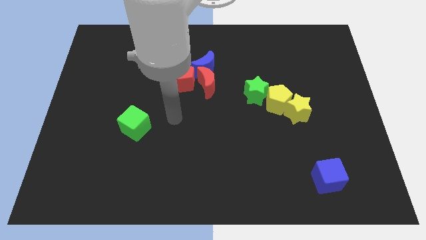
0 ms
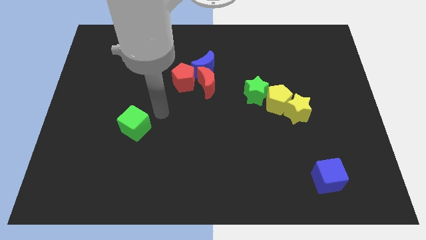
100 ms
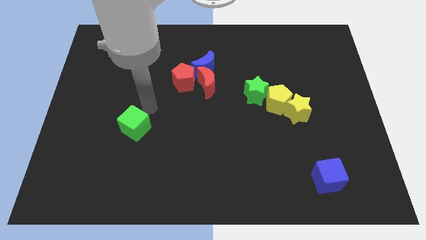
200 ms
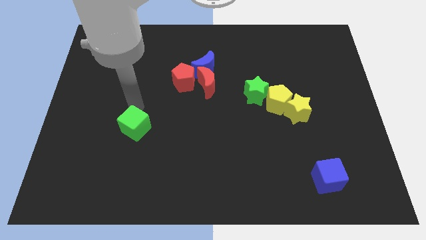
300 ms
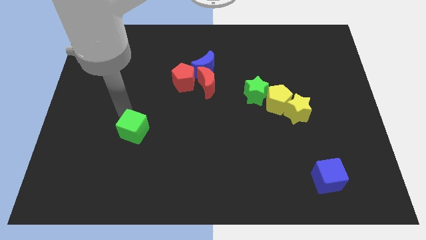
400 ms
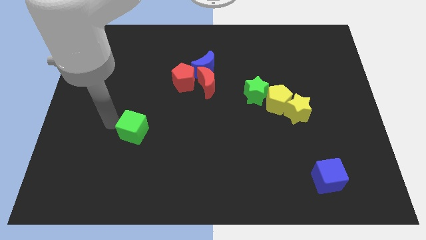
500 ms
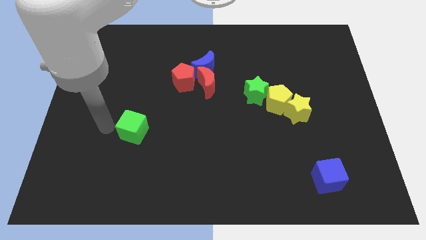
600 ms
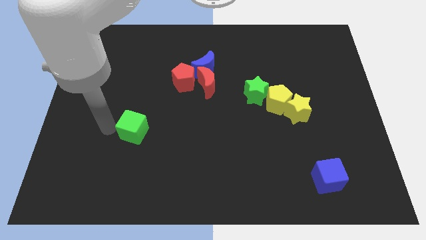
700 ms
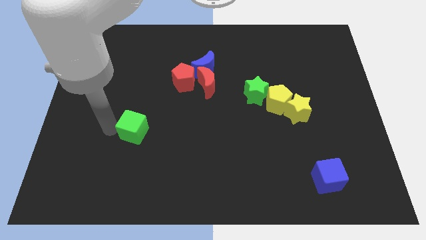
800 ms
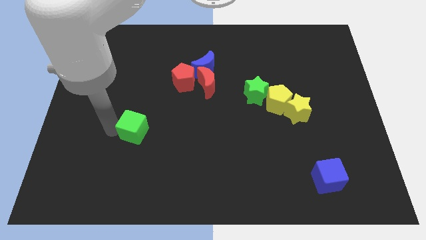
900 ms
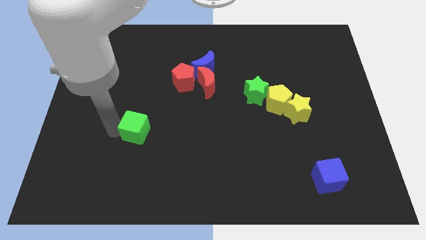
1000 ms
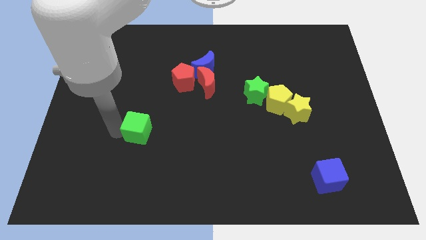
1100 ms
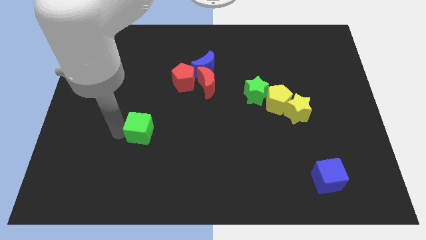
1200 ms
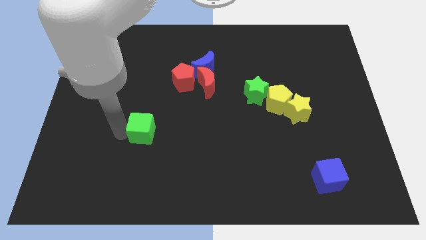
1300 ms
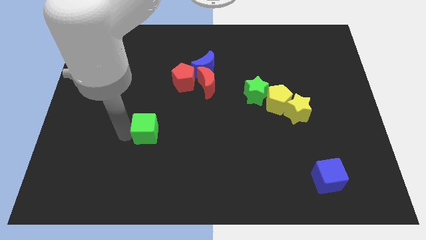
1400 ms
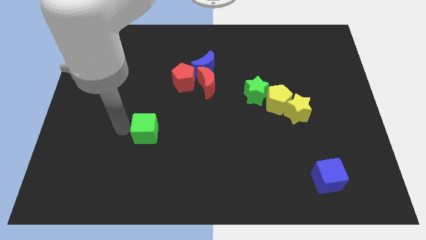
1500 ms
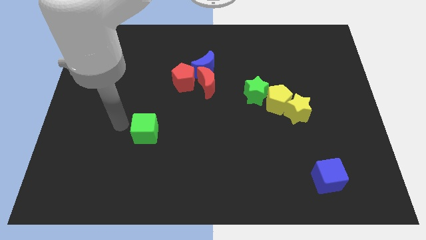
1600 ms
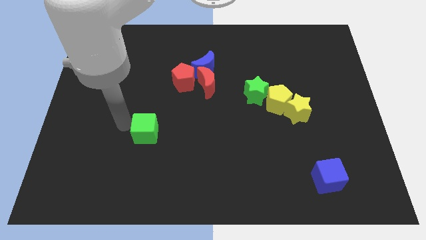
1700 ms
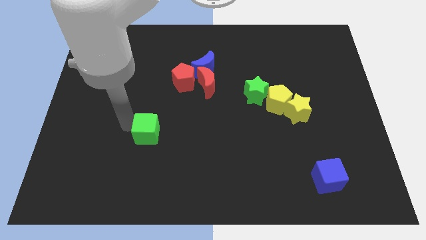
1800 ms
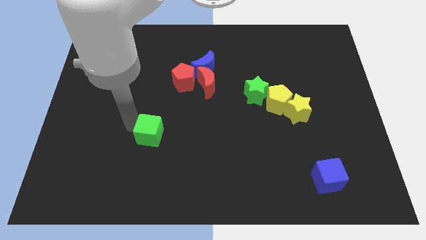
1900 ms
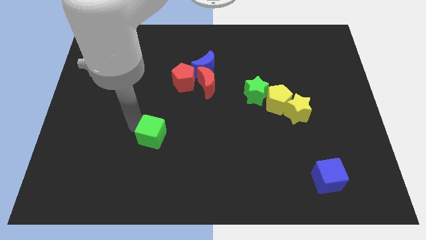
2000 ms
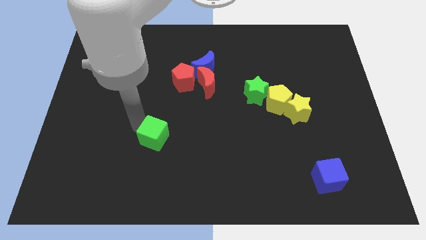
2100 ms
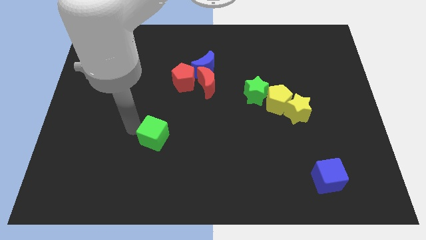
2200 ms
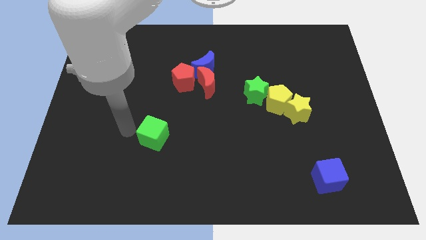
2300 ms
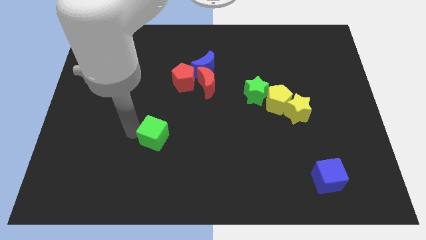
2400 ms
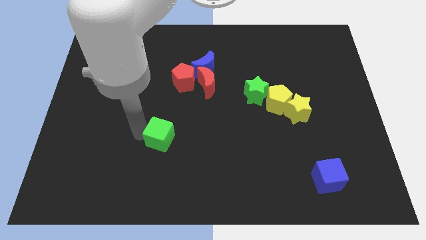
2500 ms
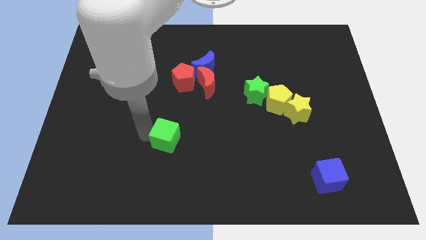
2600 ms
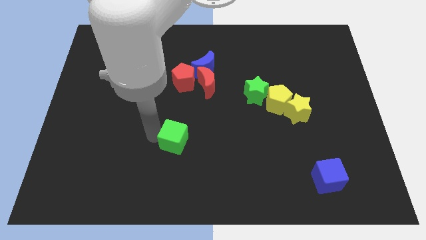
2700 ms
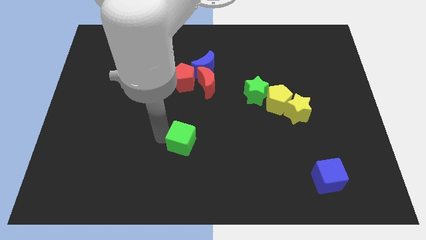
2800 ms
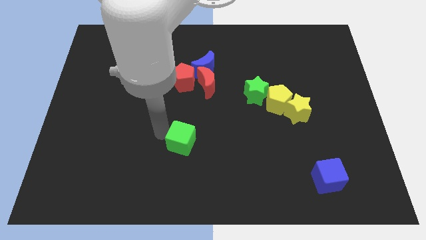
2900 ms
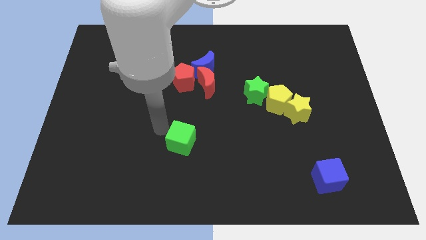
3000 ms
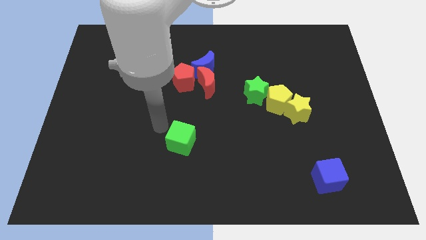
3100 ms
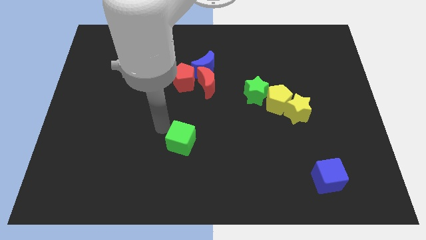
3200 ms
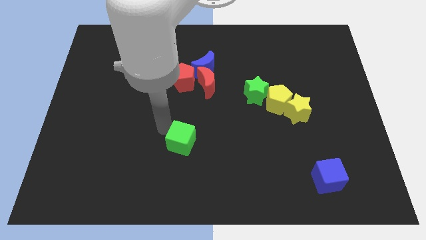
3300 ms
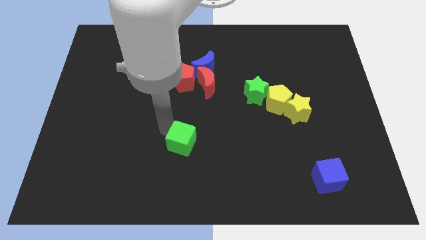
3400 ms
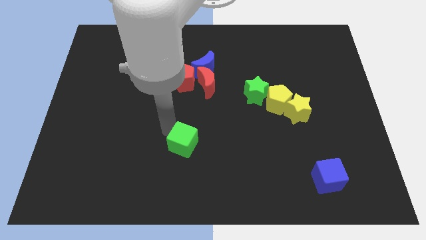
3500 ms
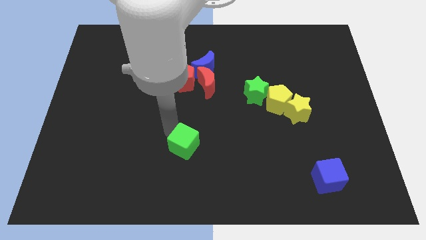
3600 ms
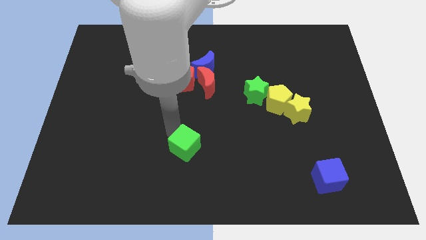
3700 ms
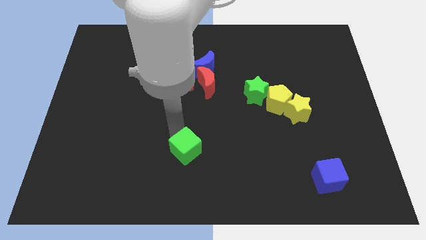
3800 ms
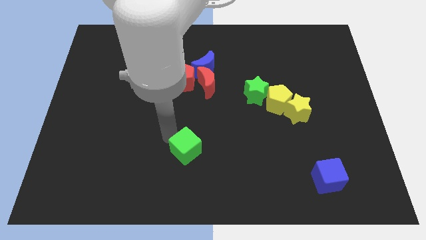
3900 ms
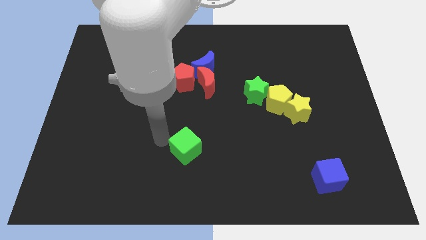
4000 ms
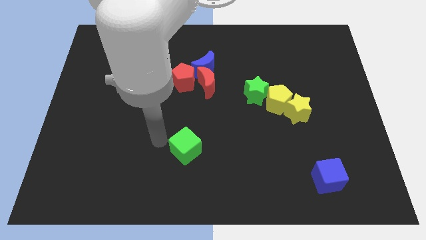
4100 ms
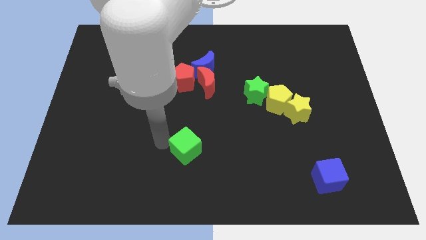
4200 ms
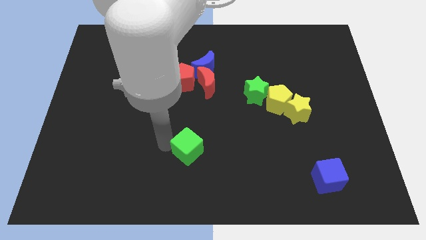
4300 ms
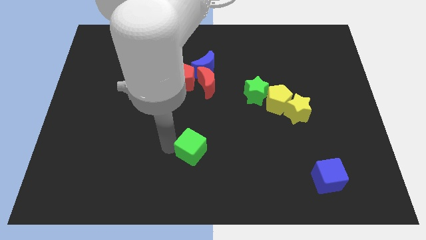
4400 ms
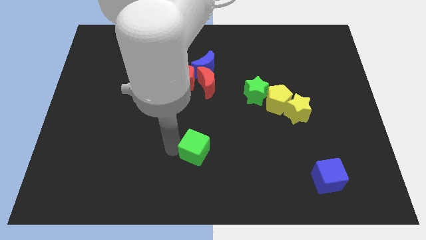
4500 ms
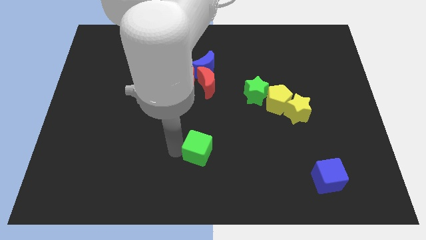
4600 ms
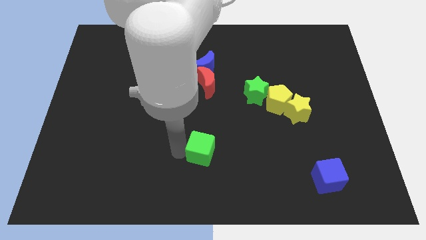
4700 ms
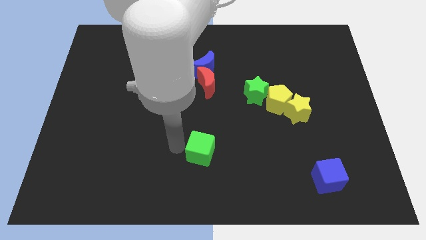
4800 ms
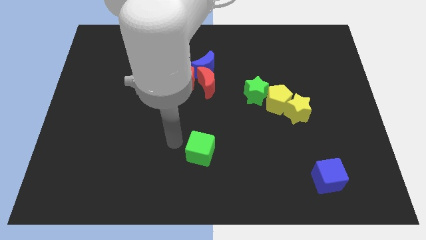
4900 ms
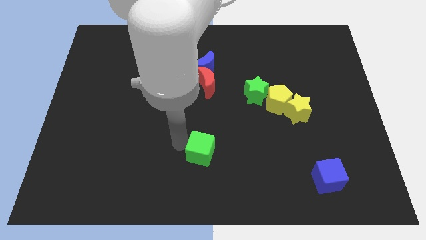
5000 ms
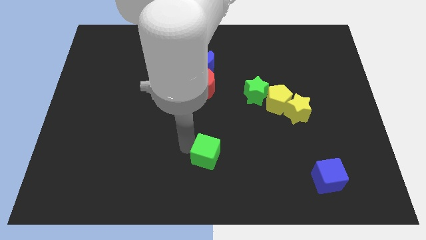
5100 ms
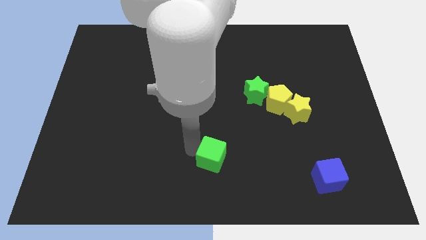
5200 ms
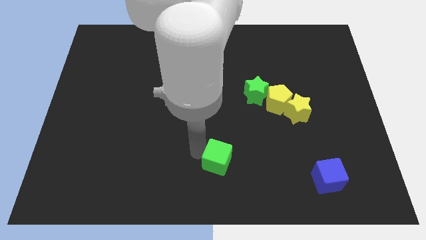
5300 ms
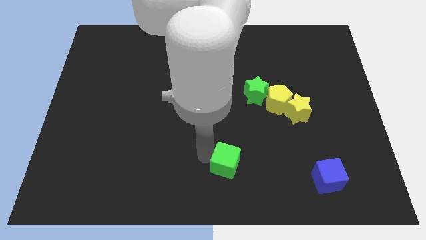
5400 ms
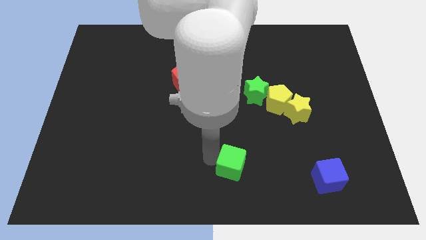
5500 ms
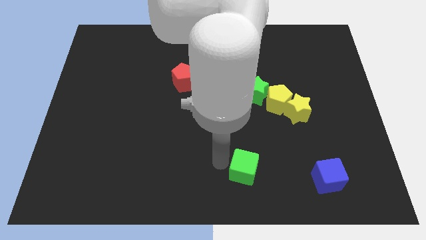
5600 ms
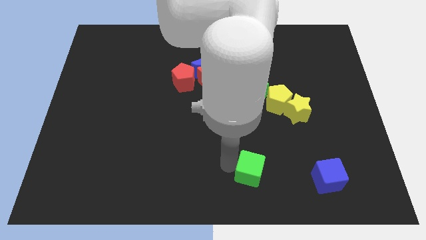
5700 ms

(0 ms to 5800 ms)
push the green cube left of the blue cube

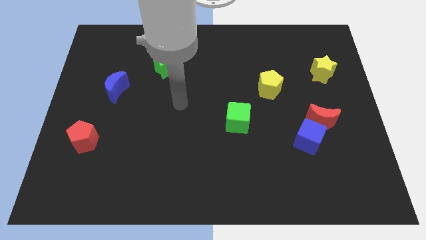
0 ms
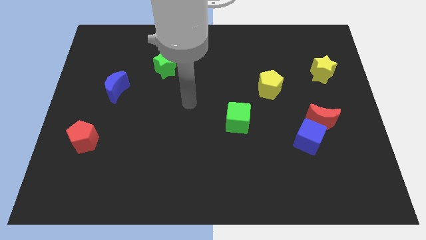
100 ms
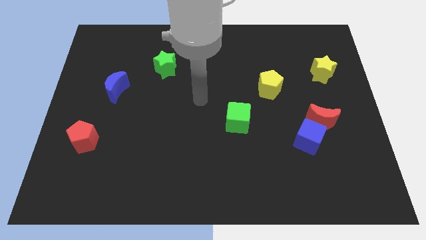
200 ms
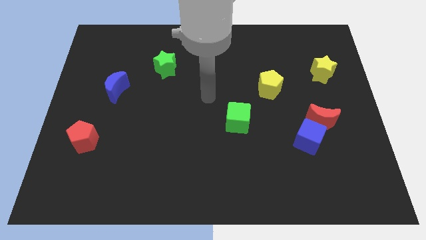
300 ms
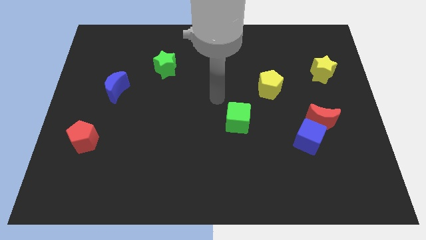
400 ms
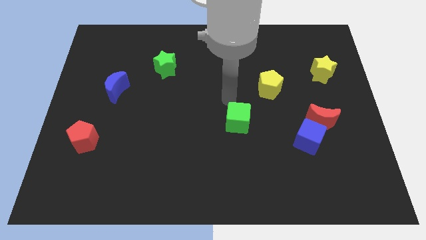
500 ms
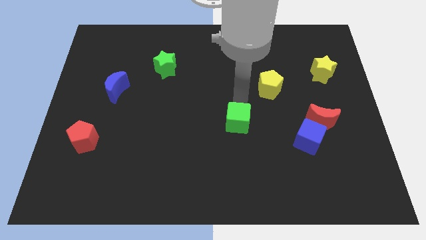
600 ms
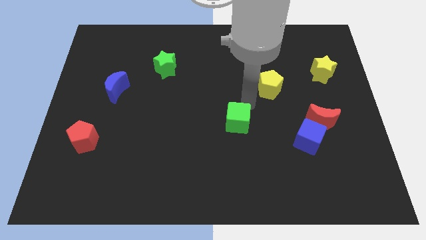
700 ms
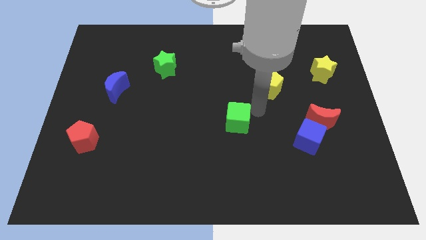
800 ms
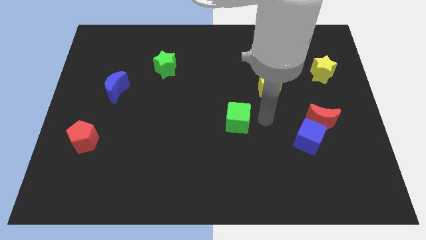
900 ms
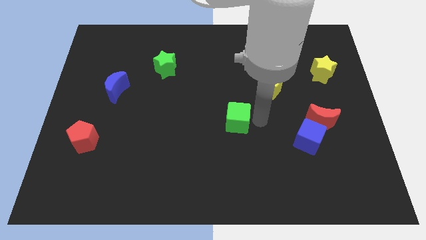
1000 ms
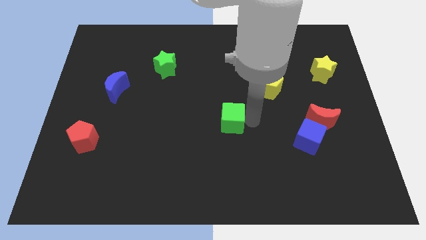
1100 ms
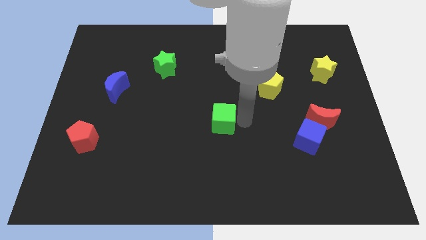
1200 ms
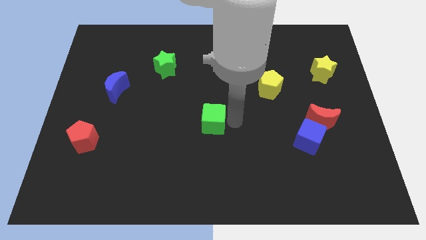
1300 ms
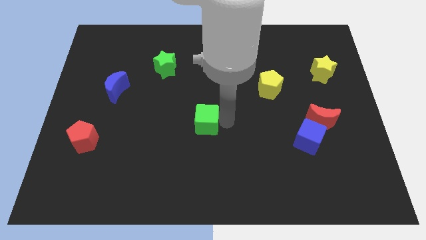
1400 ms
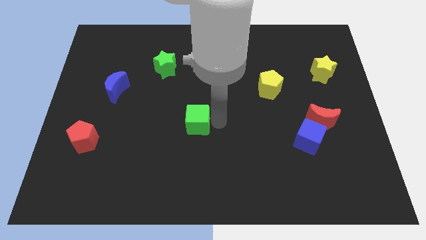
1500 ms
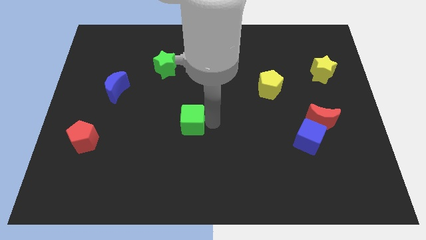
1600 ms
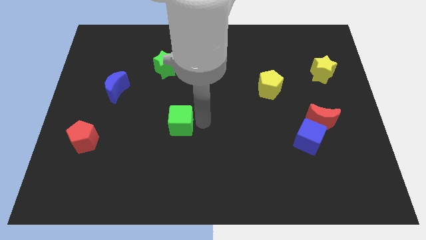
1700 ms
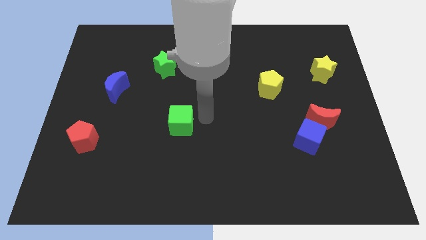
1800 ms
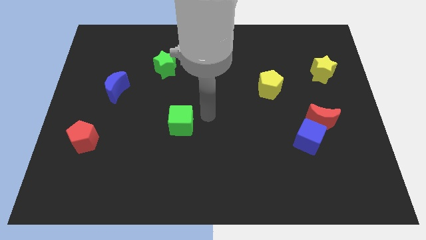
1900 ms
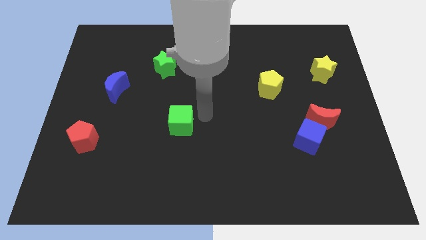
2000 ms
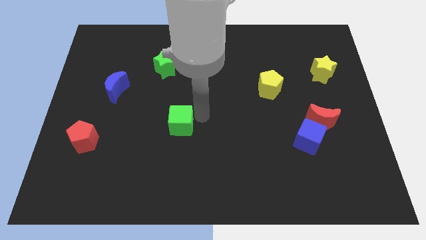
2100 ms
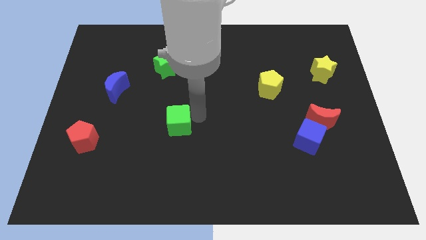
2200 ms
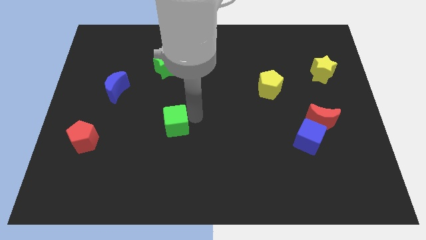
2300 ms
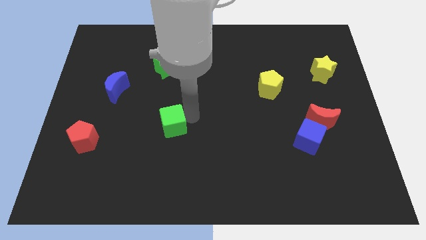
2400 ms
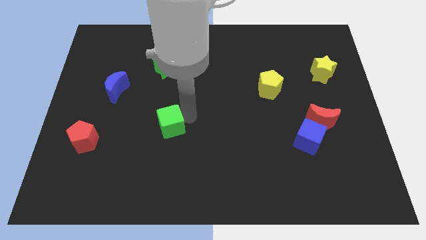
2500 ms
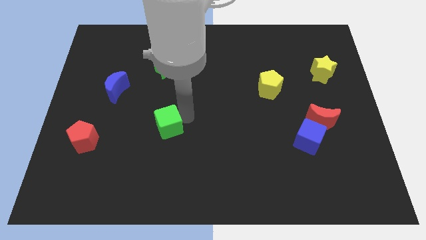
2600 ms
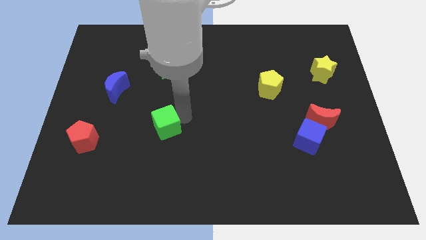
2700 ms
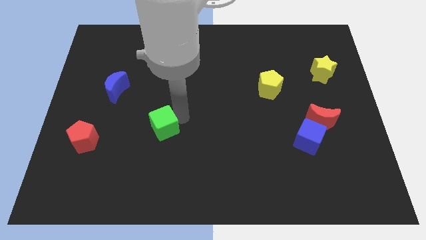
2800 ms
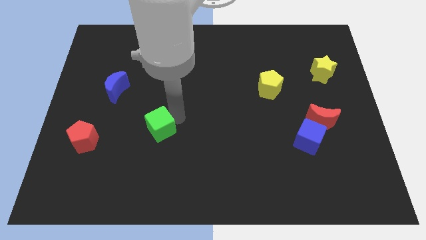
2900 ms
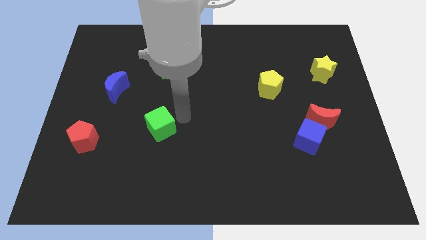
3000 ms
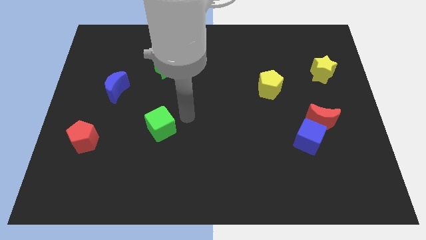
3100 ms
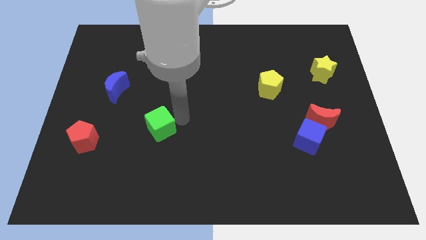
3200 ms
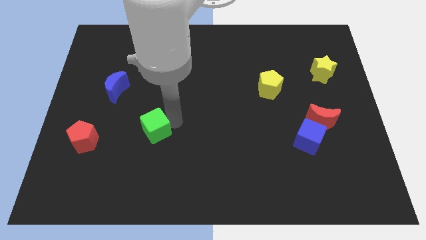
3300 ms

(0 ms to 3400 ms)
push the green cube to the right side of the red pentagon
